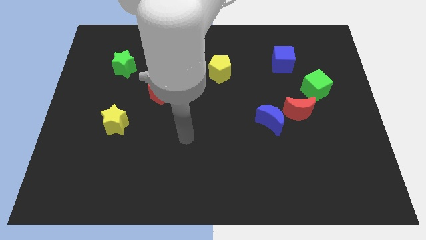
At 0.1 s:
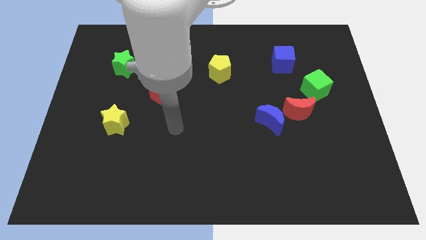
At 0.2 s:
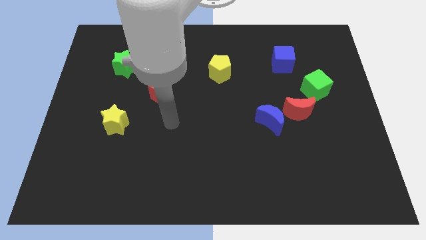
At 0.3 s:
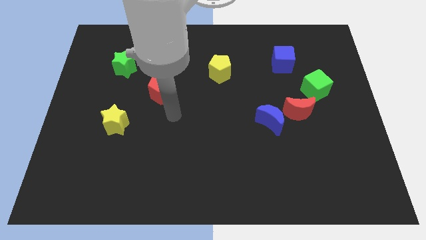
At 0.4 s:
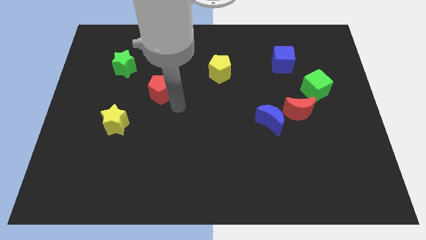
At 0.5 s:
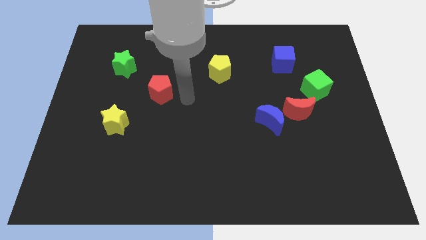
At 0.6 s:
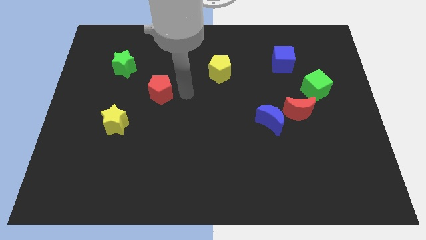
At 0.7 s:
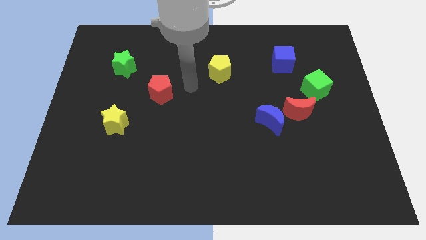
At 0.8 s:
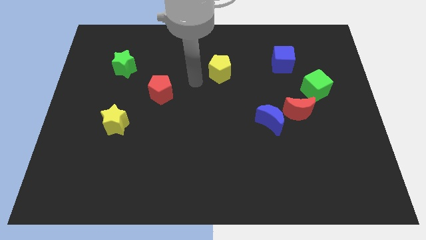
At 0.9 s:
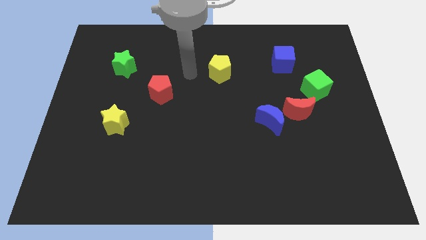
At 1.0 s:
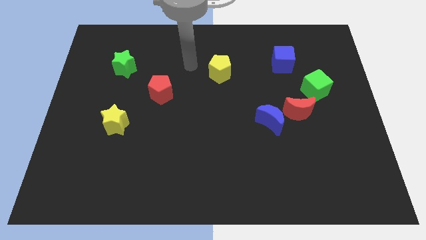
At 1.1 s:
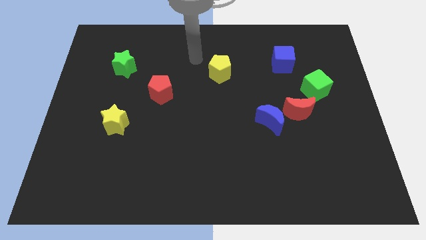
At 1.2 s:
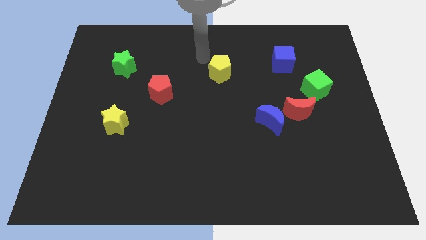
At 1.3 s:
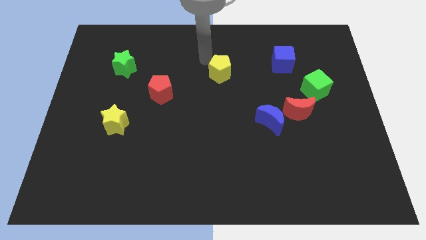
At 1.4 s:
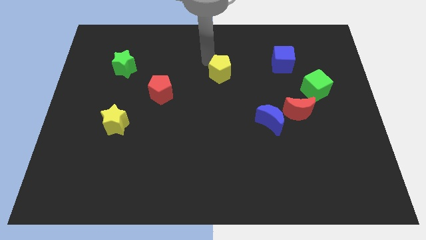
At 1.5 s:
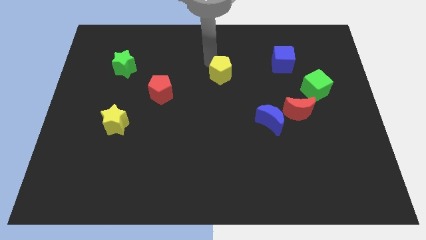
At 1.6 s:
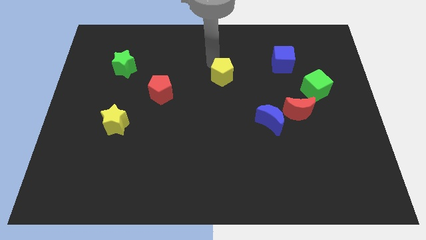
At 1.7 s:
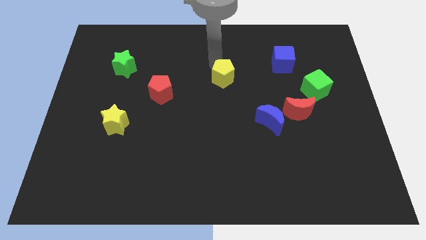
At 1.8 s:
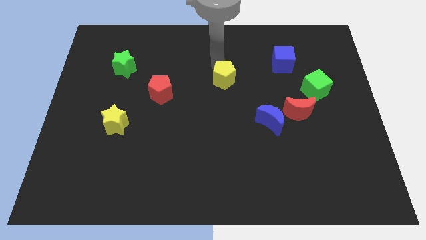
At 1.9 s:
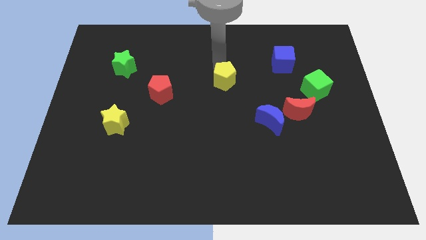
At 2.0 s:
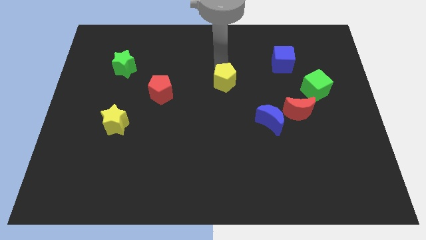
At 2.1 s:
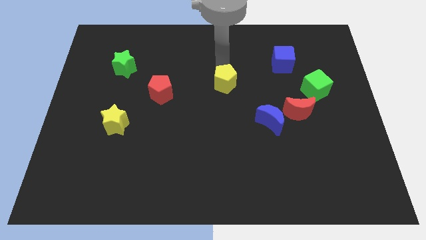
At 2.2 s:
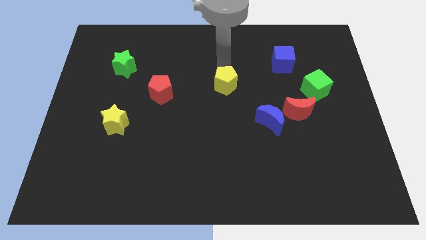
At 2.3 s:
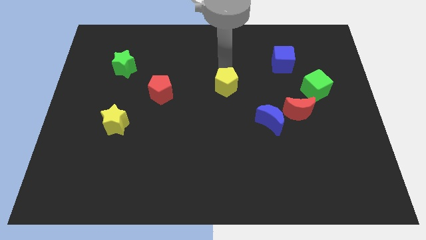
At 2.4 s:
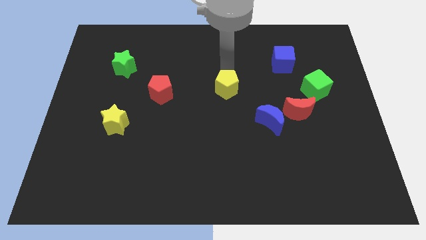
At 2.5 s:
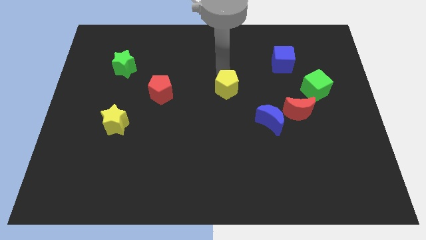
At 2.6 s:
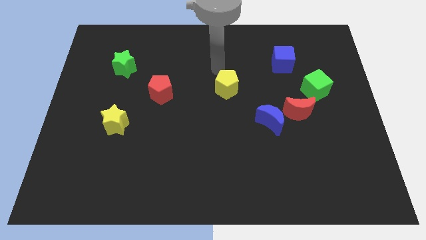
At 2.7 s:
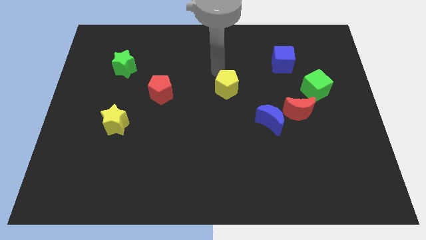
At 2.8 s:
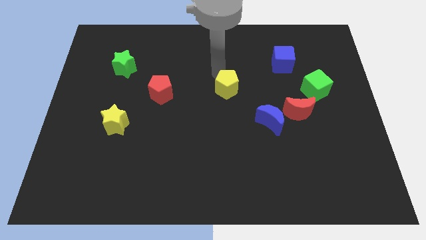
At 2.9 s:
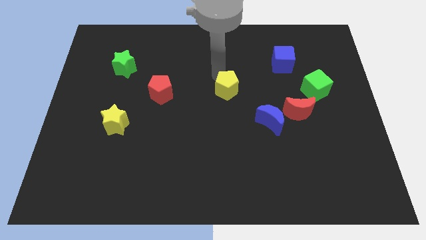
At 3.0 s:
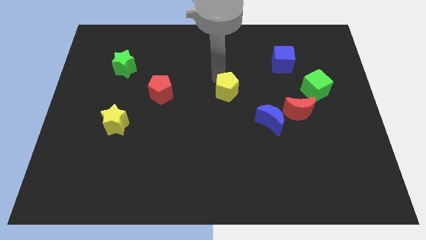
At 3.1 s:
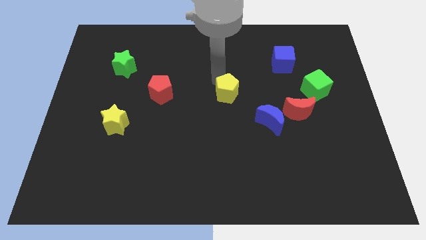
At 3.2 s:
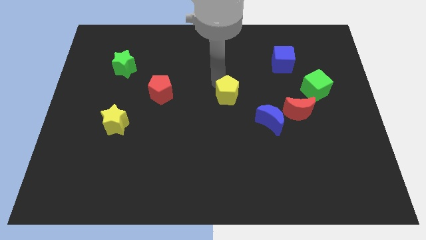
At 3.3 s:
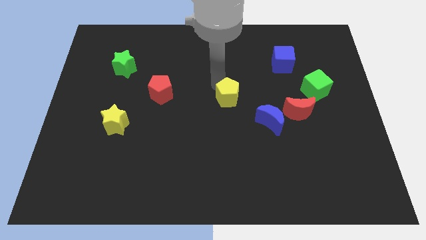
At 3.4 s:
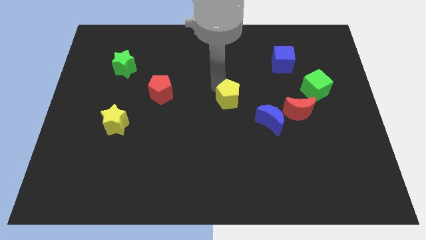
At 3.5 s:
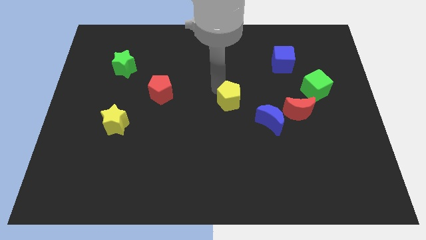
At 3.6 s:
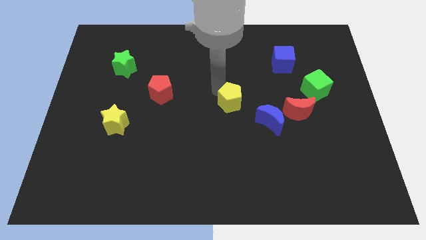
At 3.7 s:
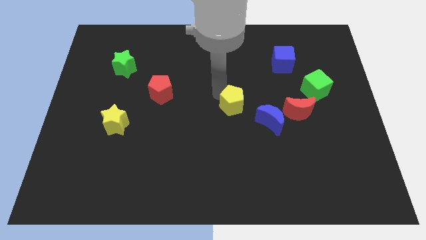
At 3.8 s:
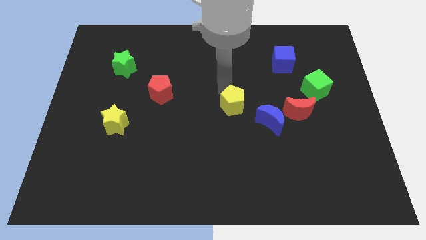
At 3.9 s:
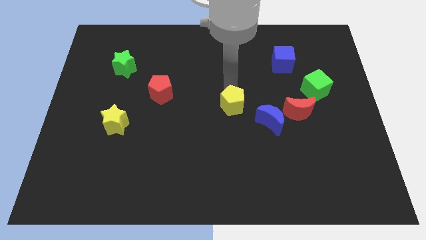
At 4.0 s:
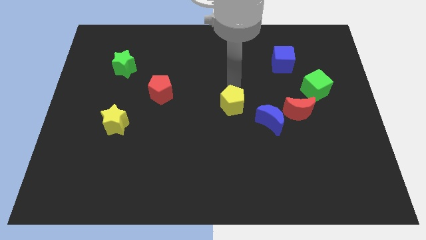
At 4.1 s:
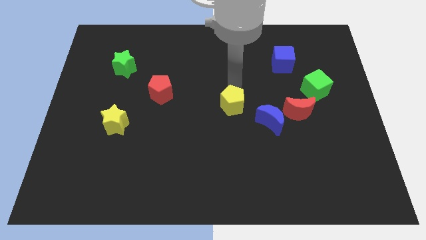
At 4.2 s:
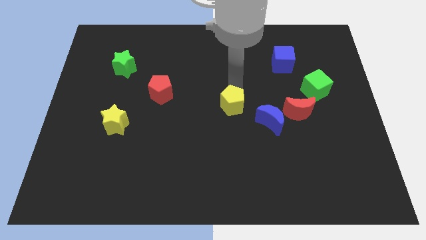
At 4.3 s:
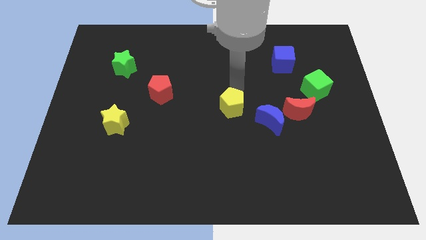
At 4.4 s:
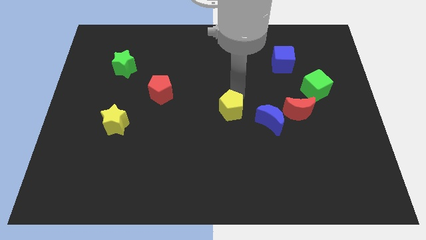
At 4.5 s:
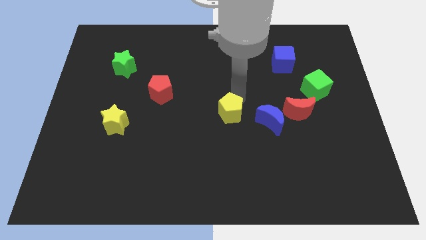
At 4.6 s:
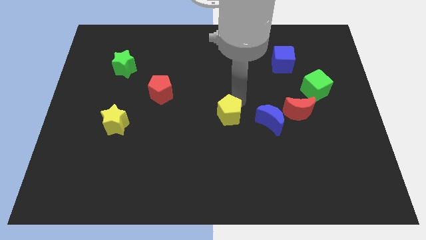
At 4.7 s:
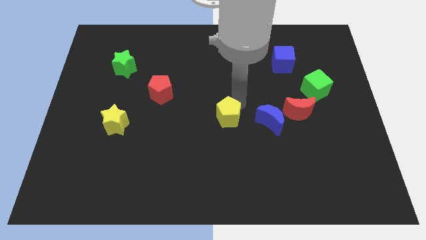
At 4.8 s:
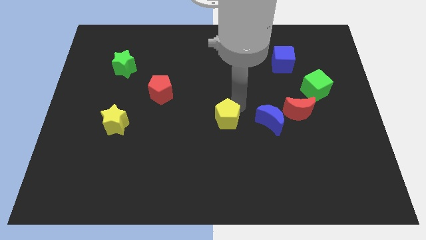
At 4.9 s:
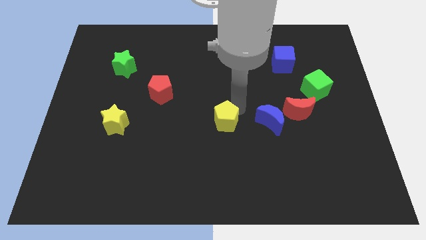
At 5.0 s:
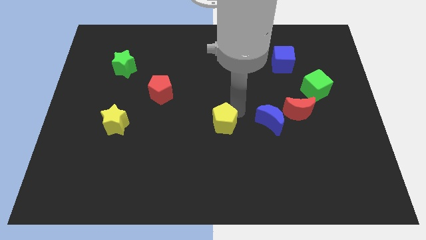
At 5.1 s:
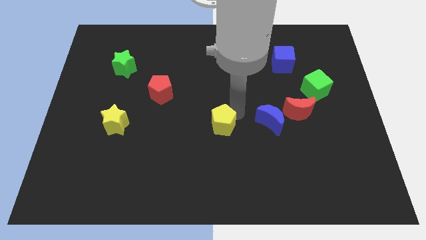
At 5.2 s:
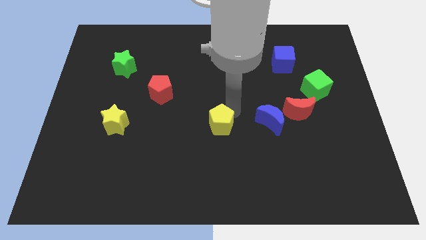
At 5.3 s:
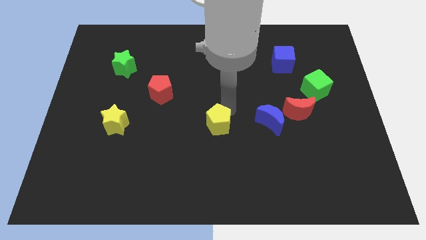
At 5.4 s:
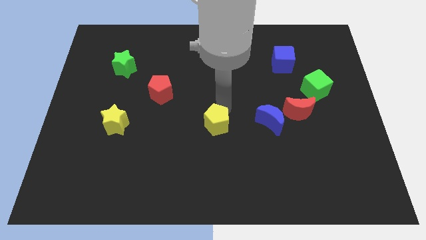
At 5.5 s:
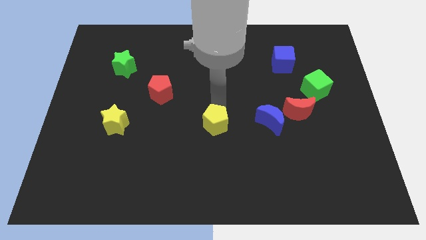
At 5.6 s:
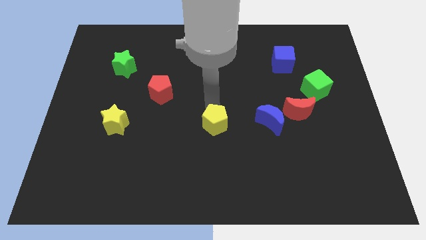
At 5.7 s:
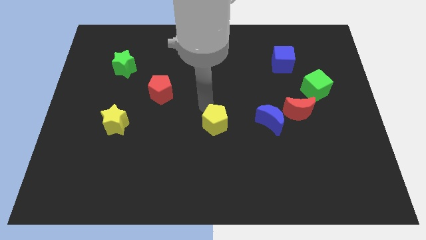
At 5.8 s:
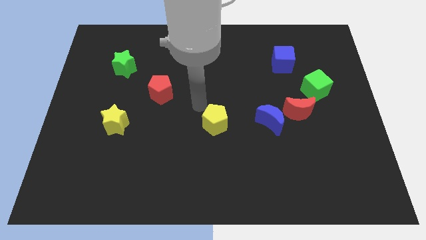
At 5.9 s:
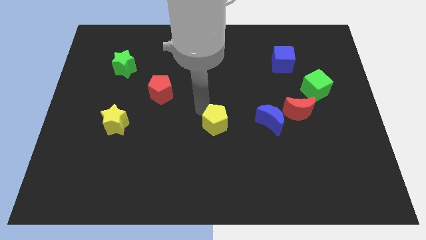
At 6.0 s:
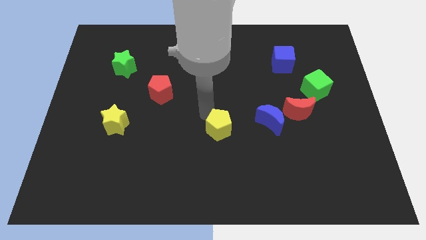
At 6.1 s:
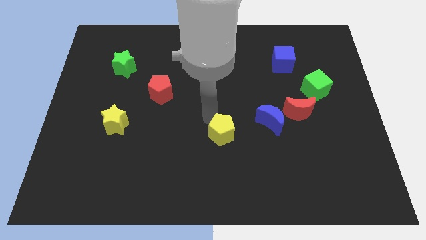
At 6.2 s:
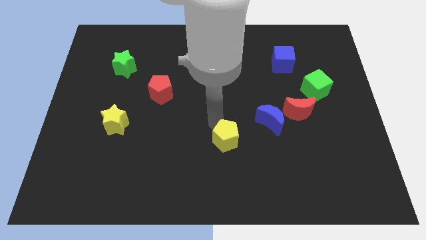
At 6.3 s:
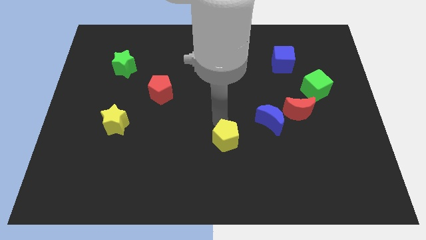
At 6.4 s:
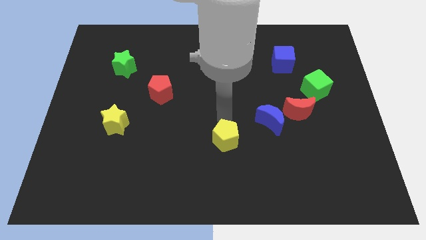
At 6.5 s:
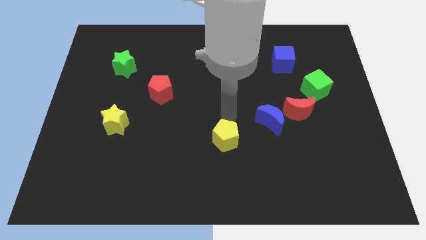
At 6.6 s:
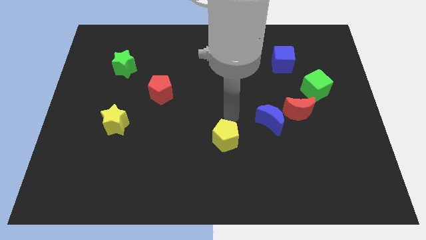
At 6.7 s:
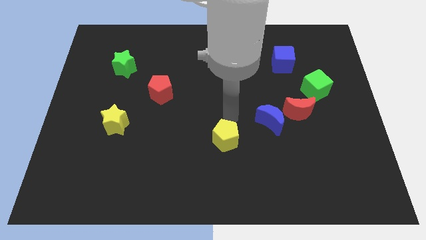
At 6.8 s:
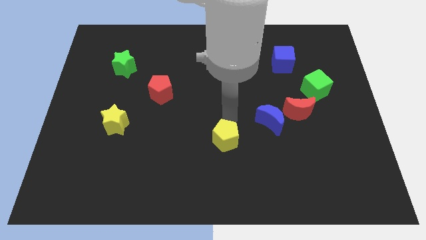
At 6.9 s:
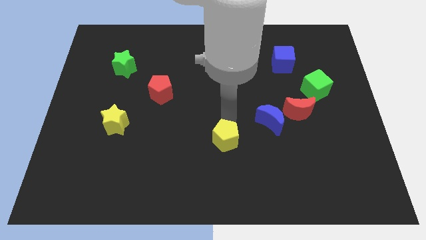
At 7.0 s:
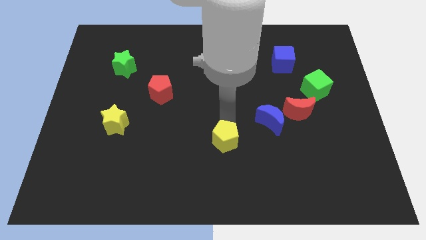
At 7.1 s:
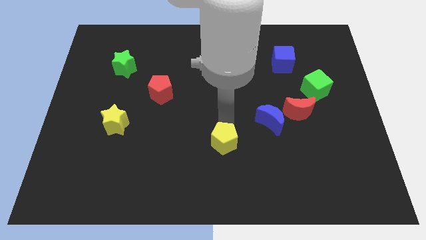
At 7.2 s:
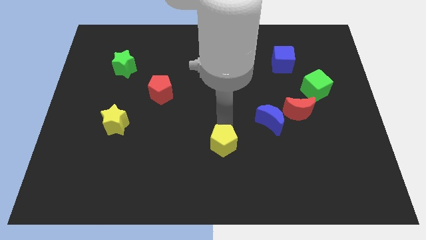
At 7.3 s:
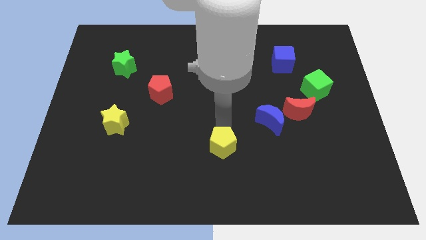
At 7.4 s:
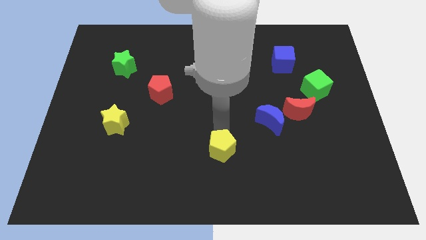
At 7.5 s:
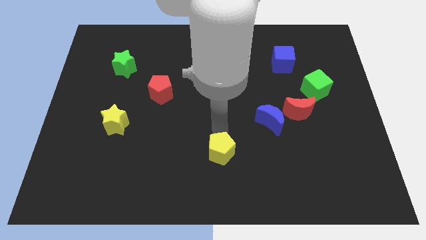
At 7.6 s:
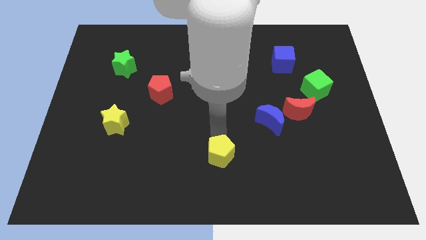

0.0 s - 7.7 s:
slide the yellow pentagon to the bottom side
